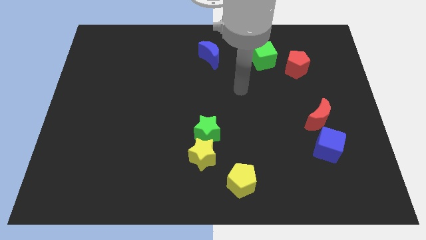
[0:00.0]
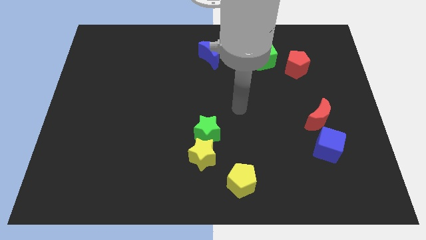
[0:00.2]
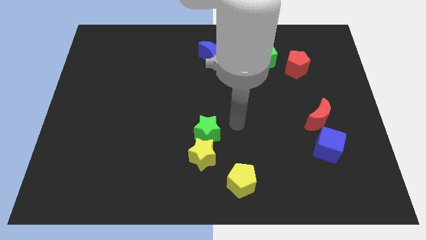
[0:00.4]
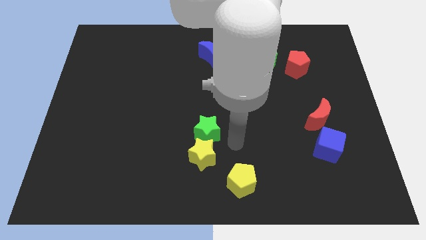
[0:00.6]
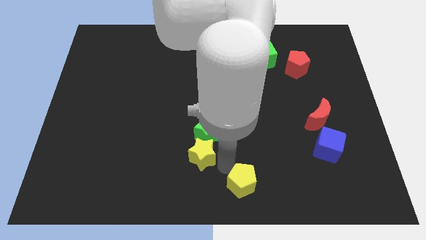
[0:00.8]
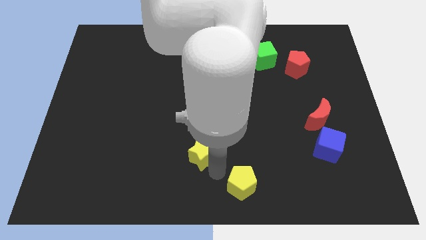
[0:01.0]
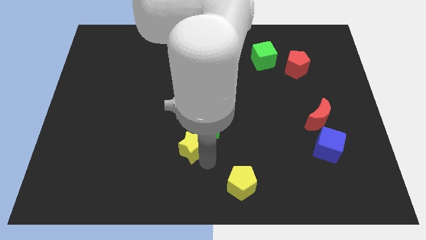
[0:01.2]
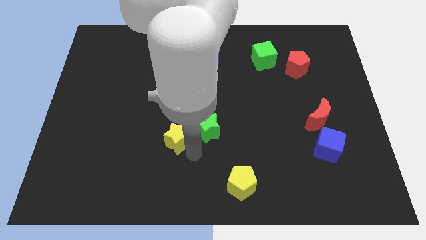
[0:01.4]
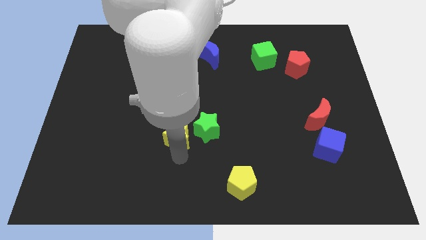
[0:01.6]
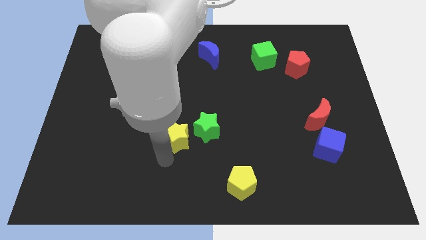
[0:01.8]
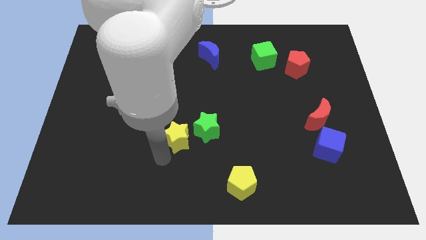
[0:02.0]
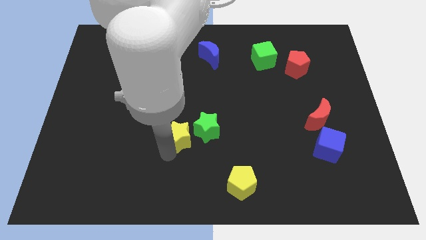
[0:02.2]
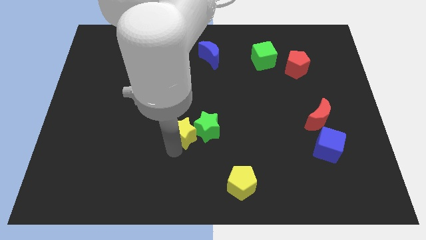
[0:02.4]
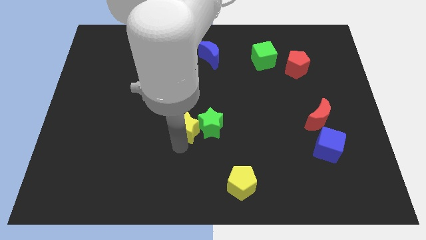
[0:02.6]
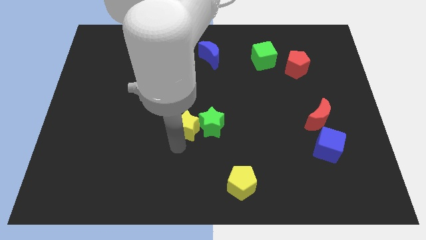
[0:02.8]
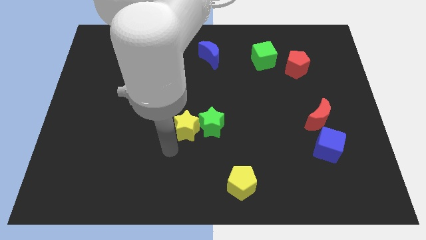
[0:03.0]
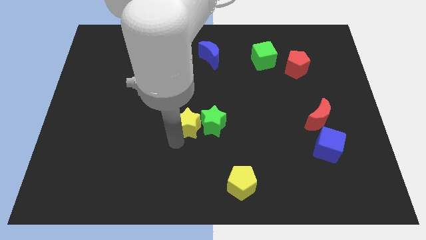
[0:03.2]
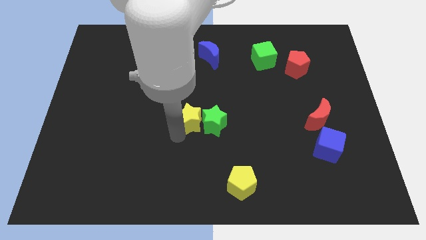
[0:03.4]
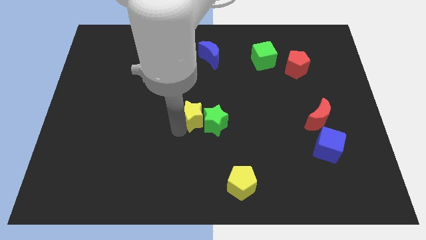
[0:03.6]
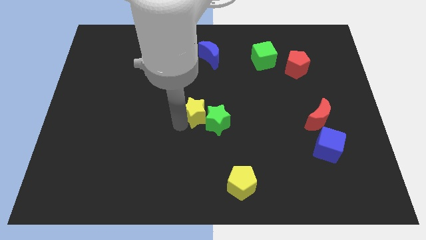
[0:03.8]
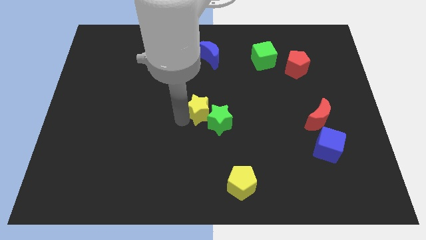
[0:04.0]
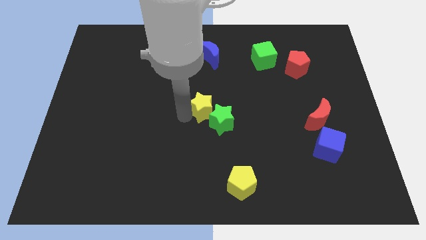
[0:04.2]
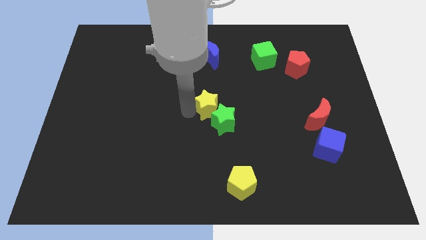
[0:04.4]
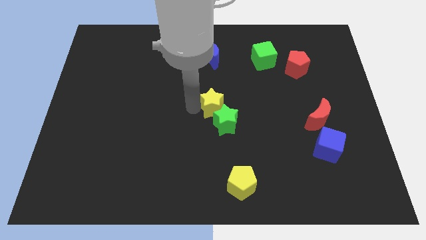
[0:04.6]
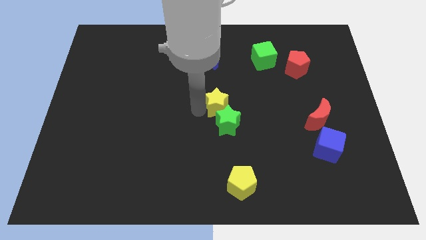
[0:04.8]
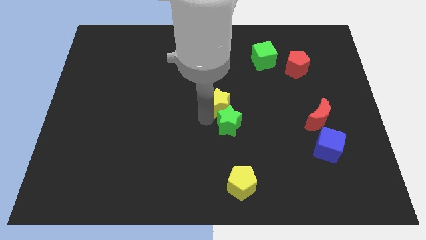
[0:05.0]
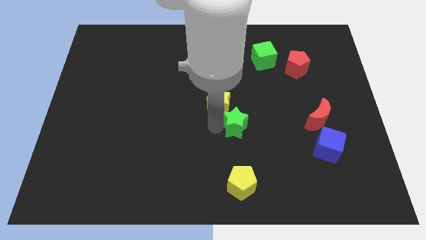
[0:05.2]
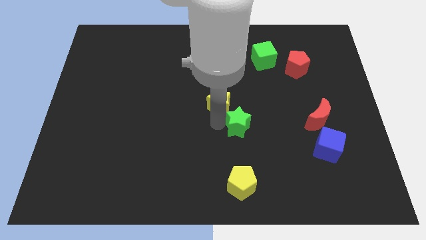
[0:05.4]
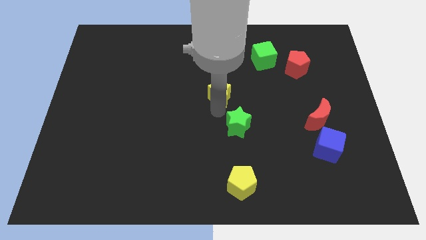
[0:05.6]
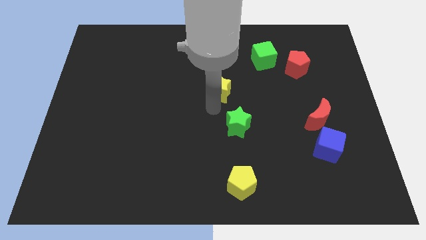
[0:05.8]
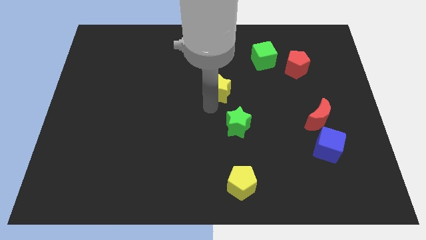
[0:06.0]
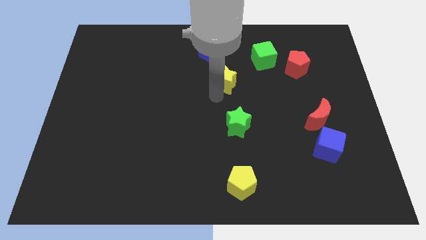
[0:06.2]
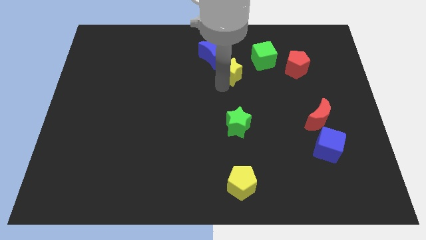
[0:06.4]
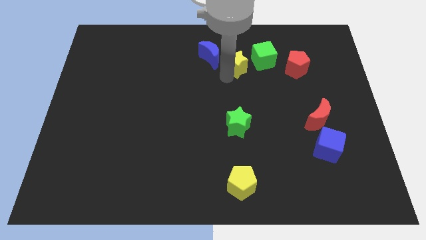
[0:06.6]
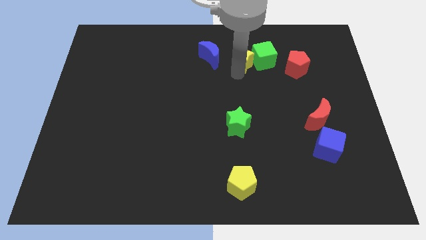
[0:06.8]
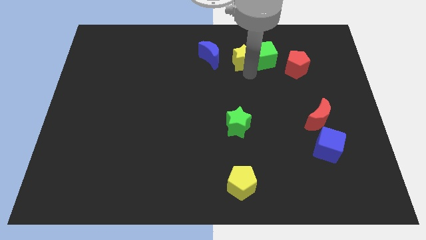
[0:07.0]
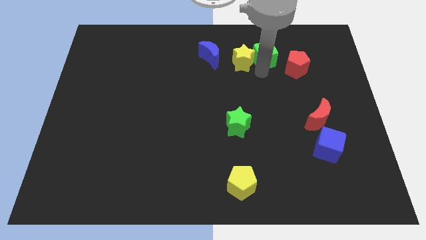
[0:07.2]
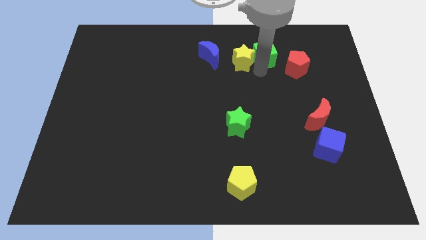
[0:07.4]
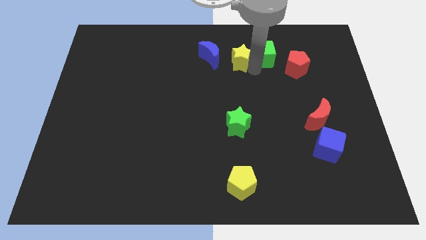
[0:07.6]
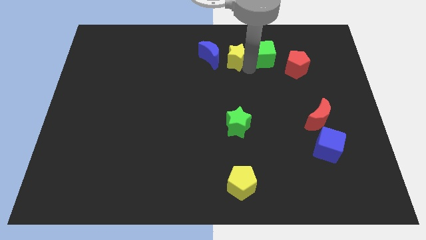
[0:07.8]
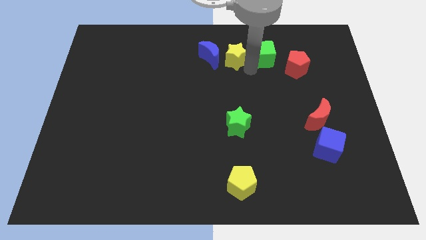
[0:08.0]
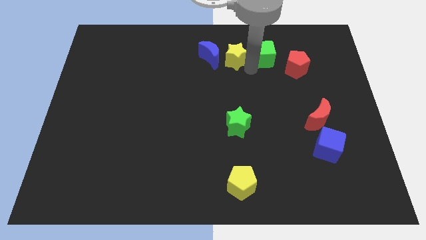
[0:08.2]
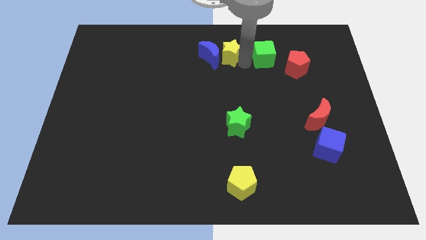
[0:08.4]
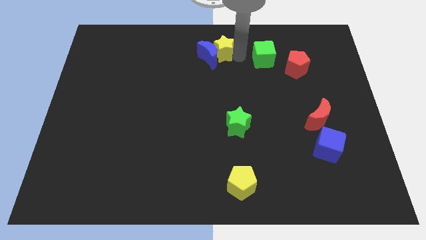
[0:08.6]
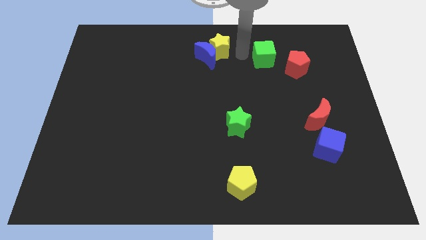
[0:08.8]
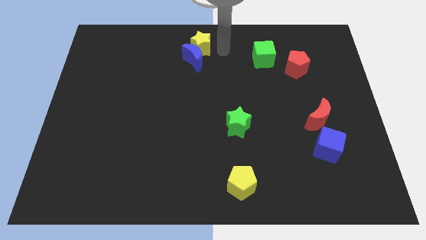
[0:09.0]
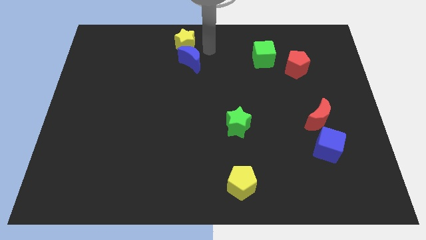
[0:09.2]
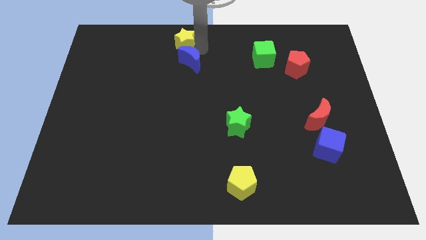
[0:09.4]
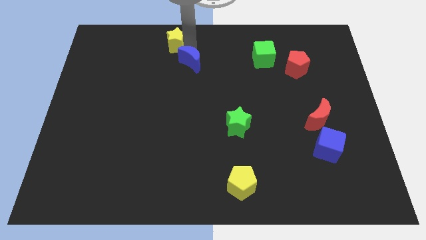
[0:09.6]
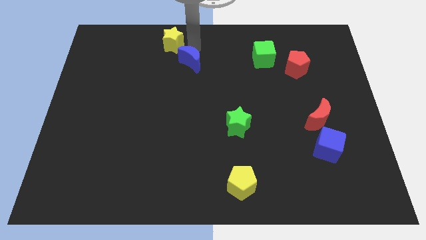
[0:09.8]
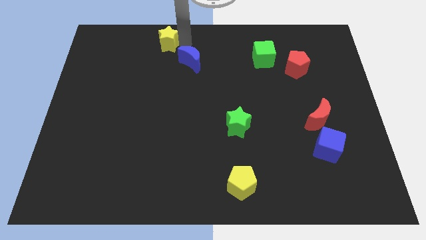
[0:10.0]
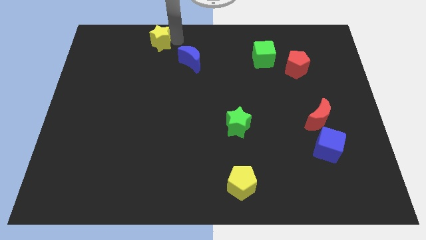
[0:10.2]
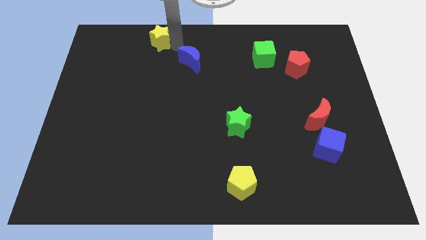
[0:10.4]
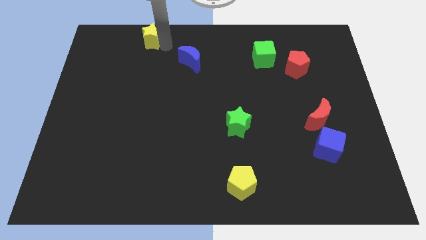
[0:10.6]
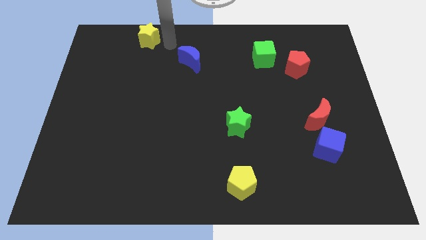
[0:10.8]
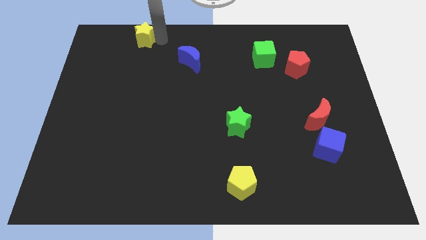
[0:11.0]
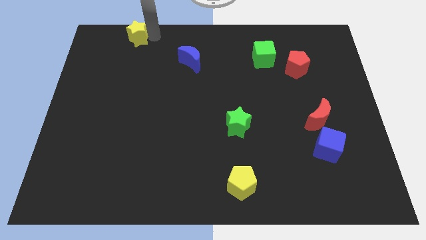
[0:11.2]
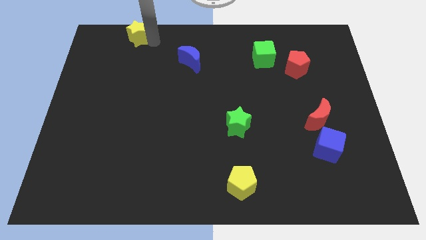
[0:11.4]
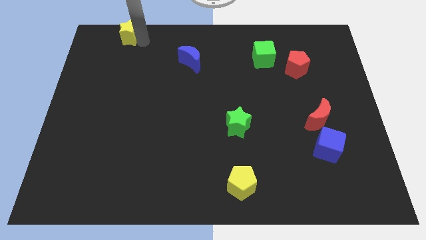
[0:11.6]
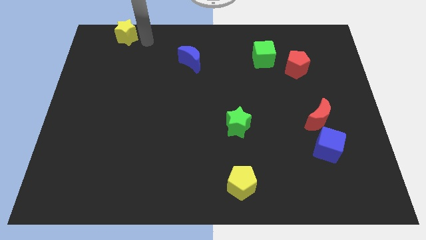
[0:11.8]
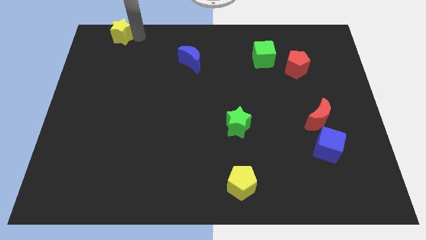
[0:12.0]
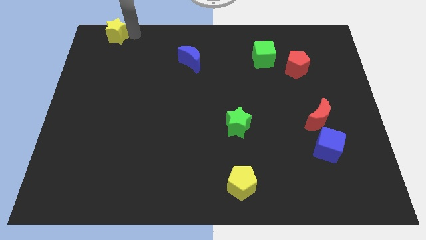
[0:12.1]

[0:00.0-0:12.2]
push the yellow star to the top left of the board
